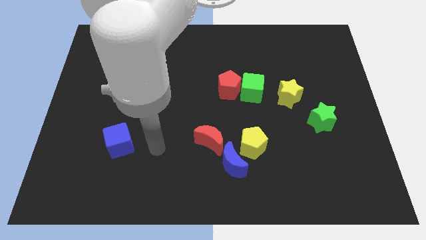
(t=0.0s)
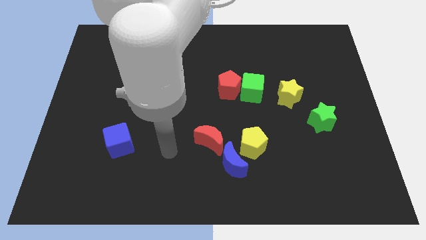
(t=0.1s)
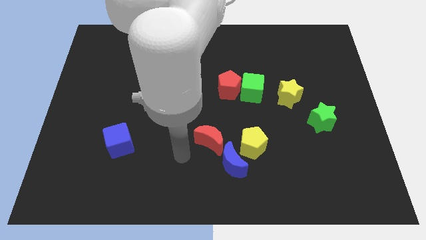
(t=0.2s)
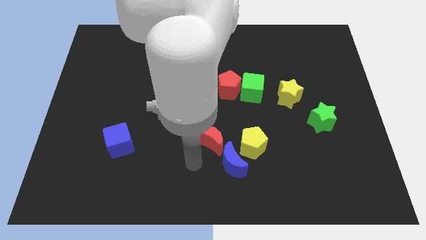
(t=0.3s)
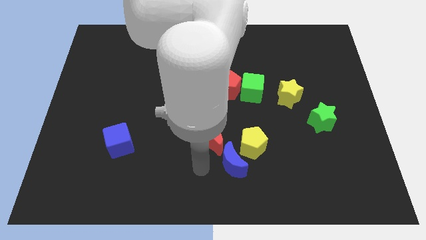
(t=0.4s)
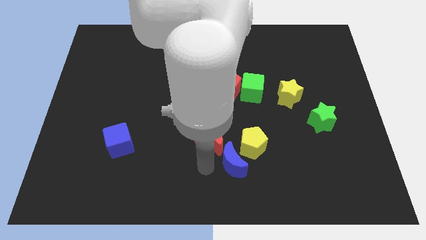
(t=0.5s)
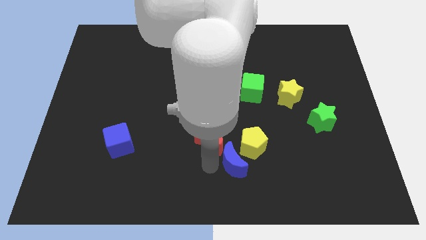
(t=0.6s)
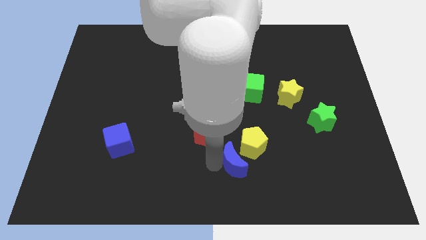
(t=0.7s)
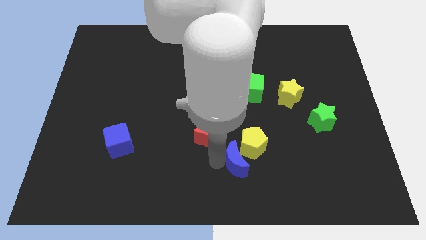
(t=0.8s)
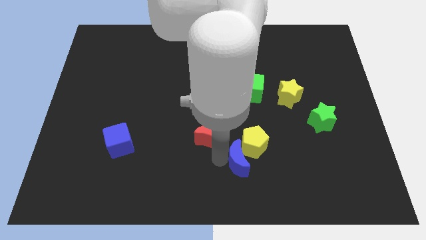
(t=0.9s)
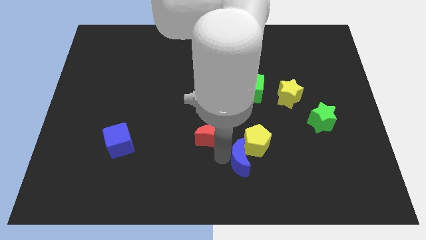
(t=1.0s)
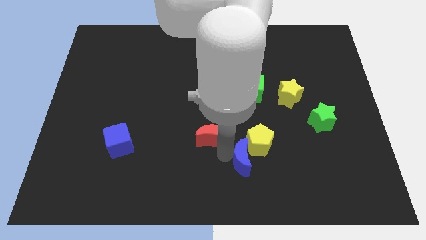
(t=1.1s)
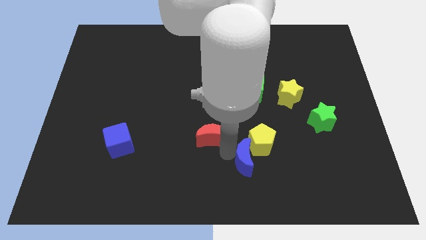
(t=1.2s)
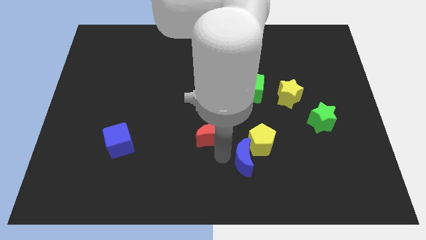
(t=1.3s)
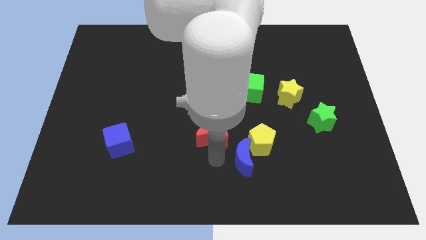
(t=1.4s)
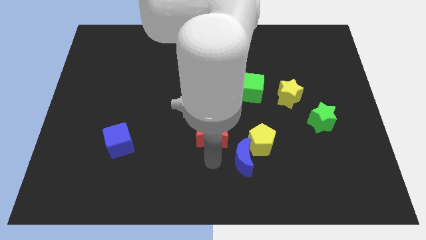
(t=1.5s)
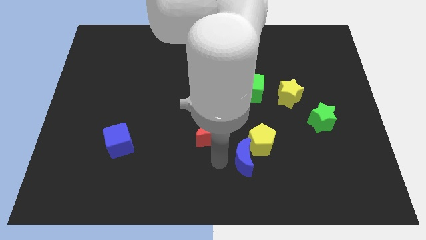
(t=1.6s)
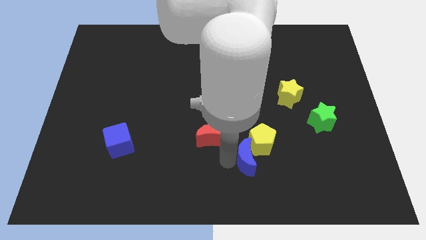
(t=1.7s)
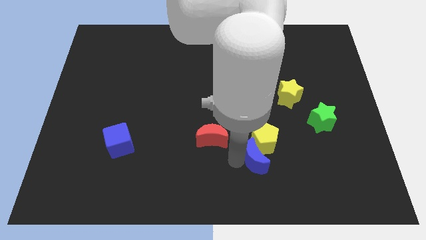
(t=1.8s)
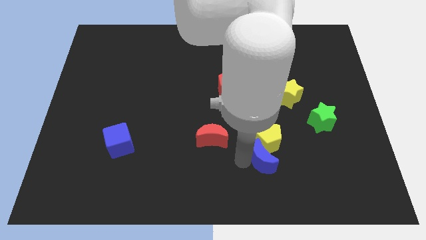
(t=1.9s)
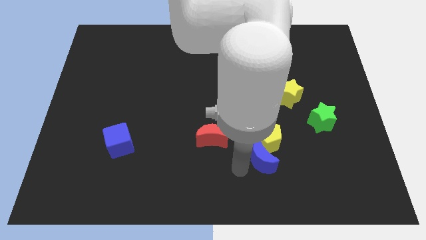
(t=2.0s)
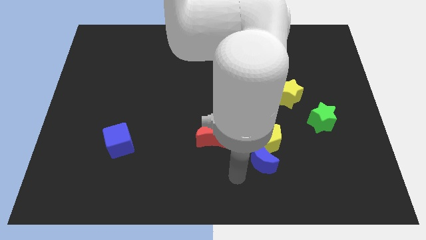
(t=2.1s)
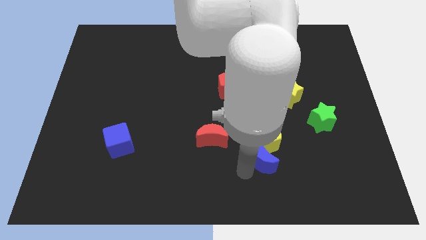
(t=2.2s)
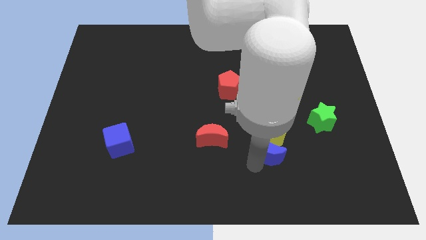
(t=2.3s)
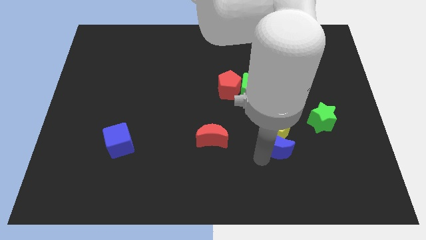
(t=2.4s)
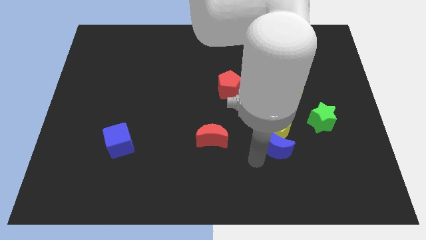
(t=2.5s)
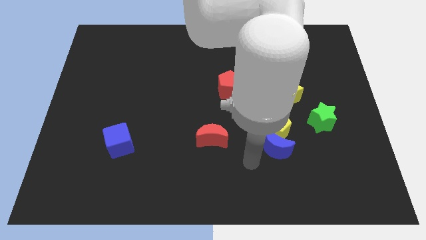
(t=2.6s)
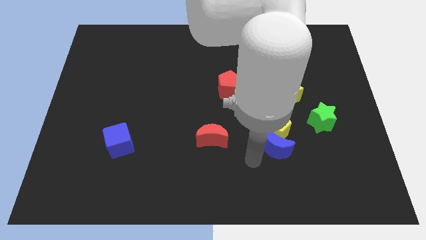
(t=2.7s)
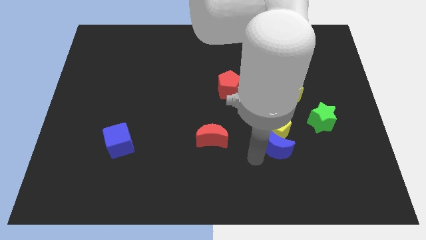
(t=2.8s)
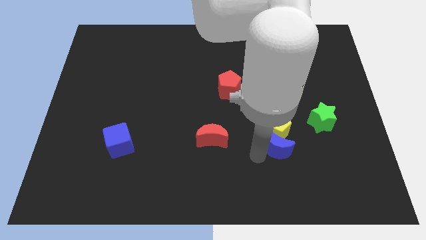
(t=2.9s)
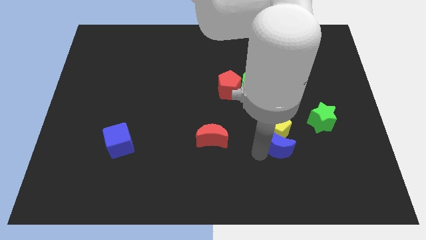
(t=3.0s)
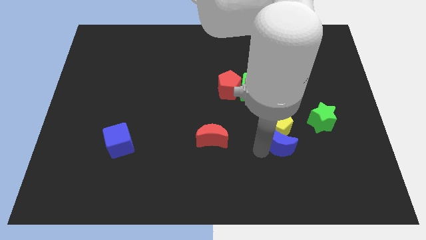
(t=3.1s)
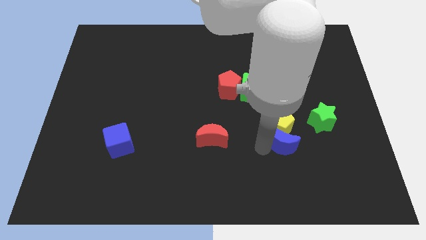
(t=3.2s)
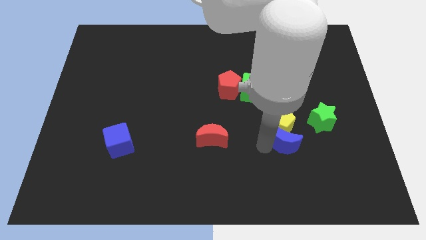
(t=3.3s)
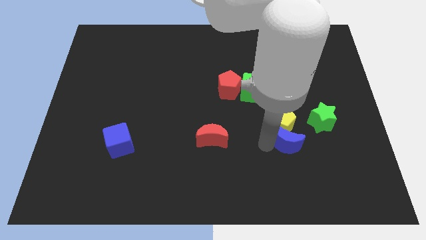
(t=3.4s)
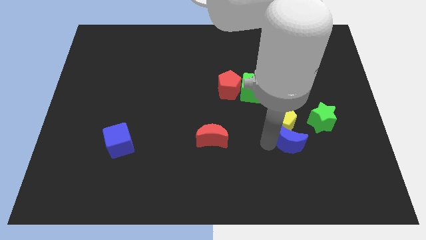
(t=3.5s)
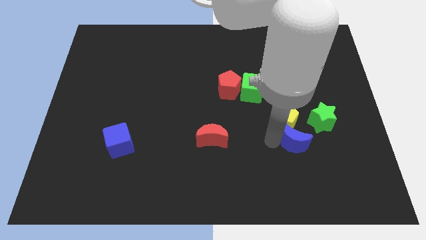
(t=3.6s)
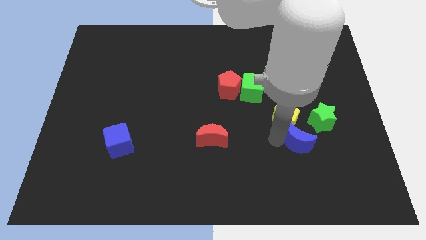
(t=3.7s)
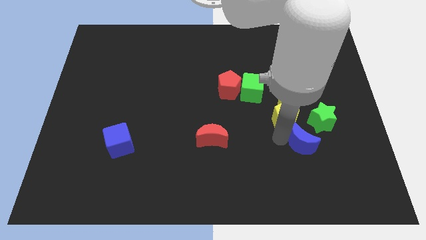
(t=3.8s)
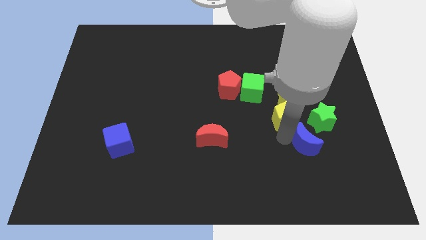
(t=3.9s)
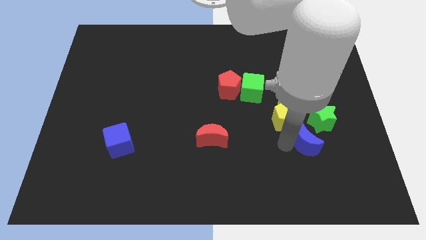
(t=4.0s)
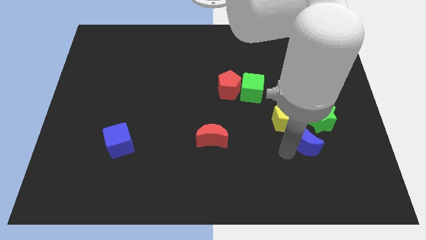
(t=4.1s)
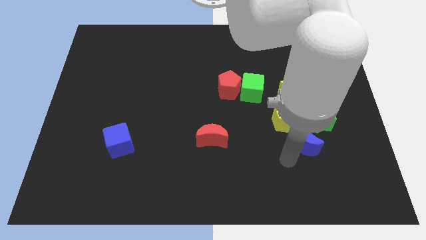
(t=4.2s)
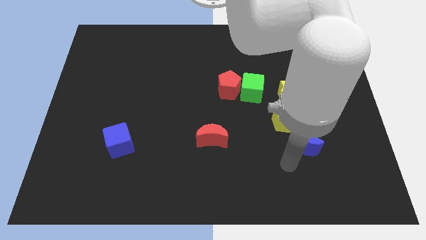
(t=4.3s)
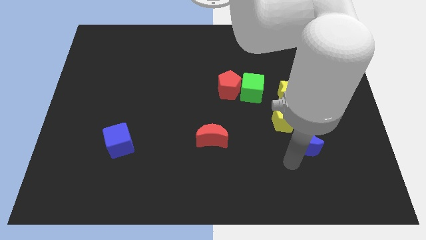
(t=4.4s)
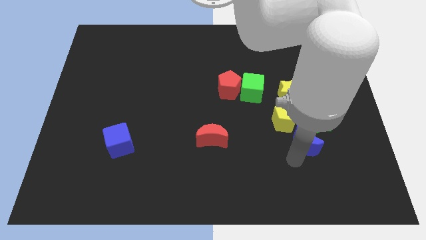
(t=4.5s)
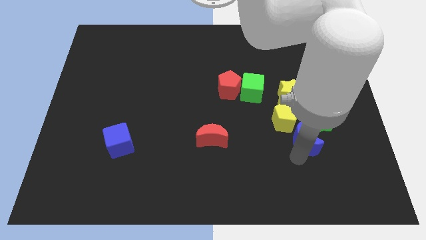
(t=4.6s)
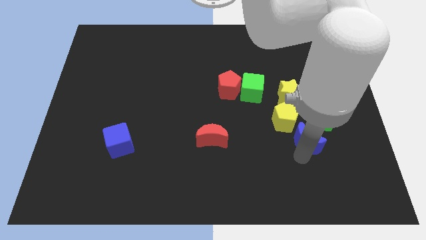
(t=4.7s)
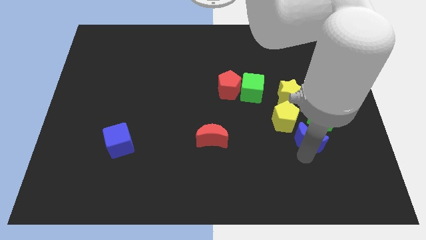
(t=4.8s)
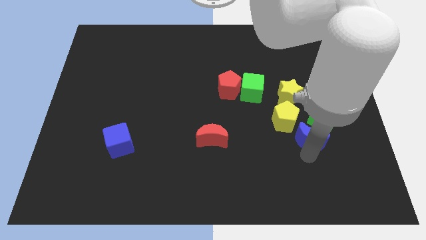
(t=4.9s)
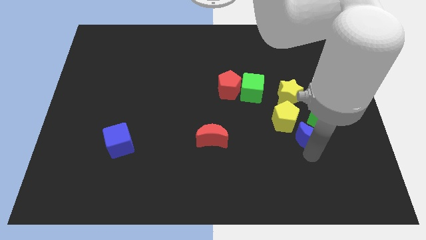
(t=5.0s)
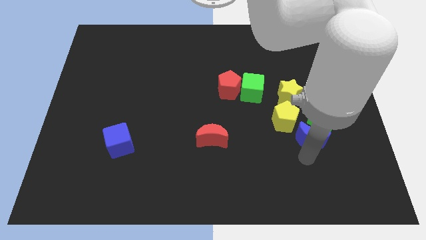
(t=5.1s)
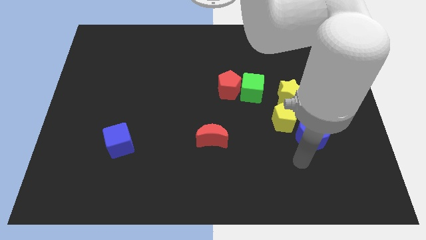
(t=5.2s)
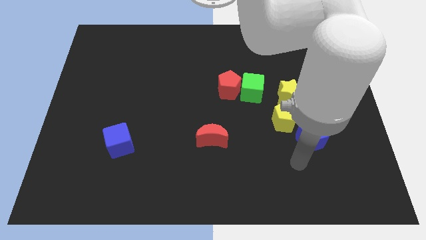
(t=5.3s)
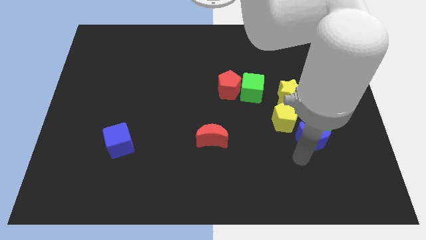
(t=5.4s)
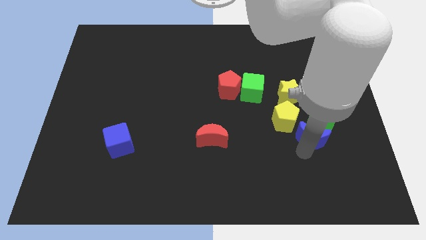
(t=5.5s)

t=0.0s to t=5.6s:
move the blue moon to the green star

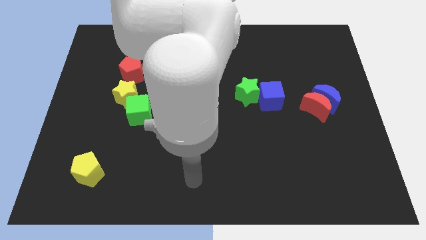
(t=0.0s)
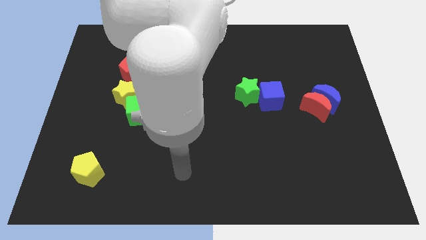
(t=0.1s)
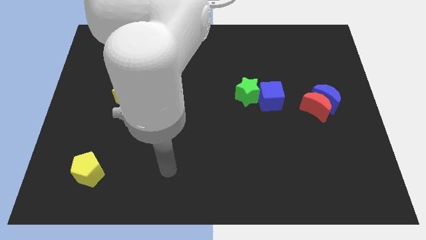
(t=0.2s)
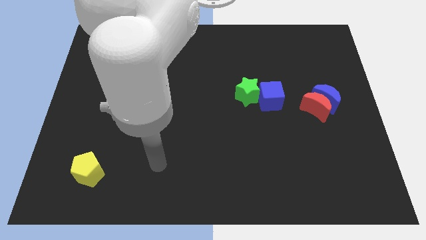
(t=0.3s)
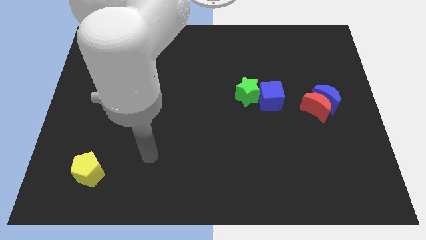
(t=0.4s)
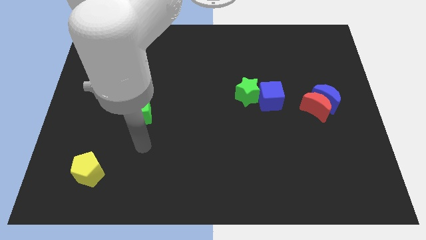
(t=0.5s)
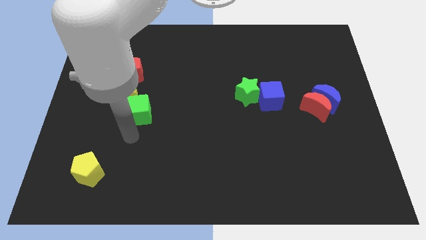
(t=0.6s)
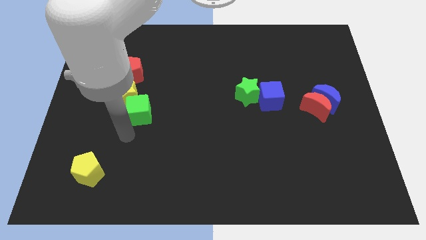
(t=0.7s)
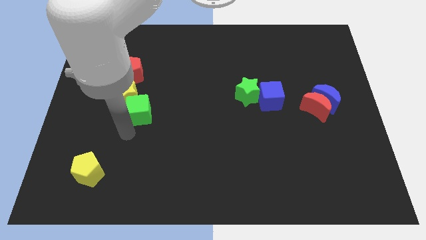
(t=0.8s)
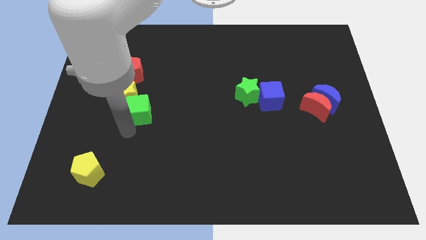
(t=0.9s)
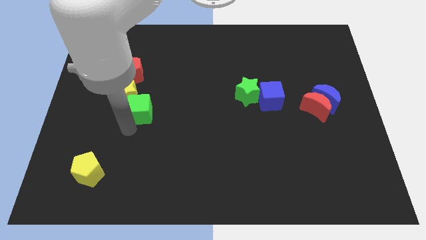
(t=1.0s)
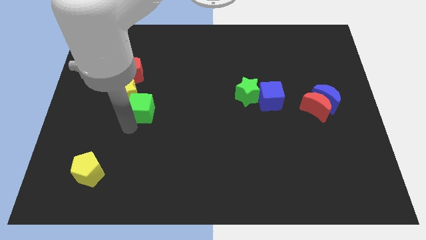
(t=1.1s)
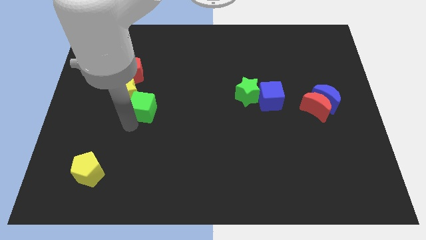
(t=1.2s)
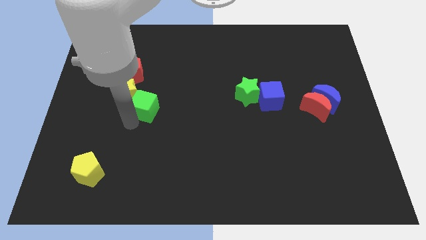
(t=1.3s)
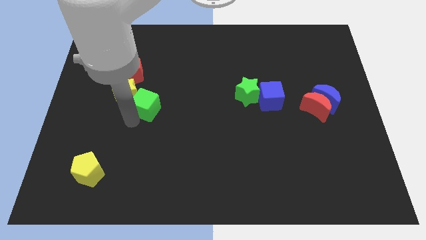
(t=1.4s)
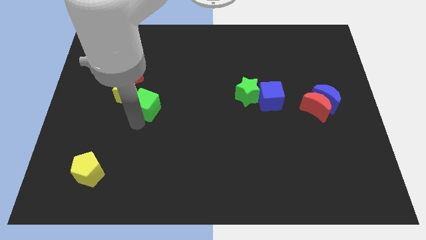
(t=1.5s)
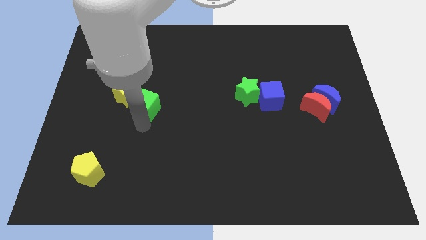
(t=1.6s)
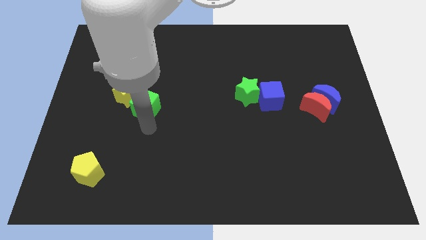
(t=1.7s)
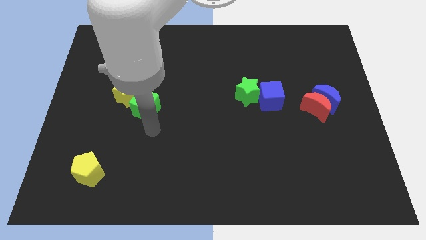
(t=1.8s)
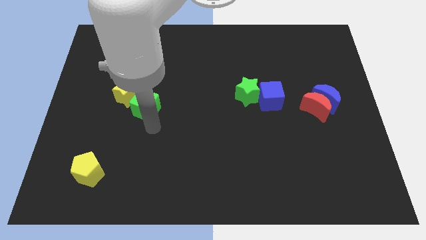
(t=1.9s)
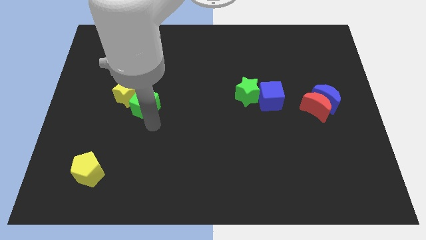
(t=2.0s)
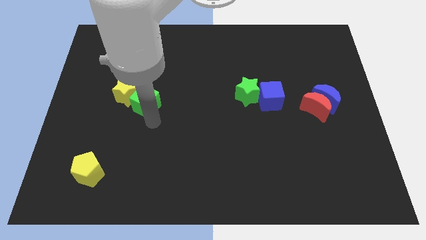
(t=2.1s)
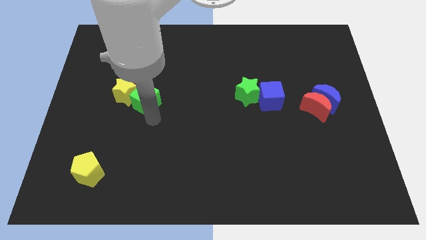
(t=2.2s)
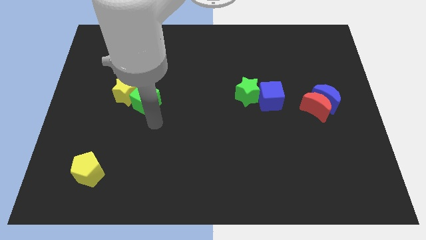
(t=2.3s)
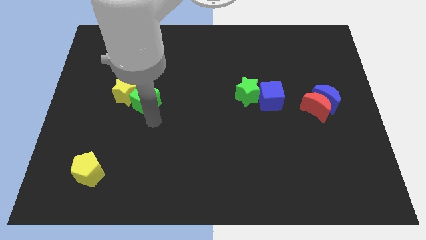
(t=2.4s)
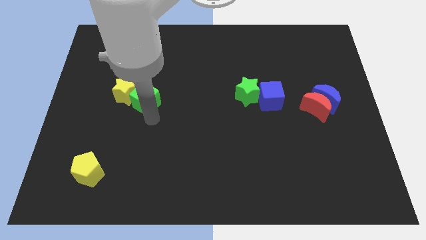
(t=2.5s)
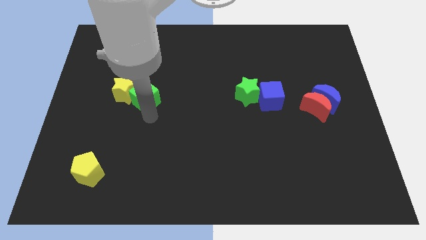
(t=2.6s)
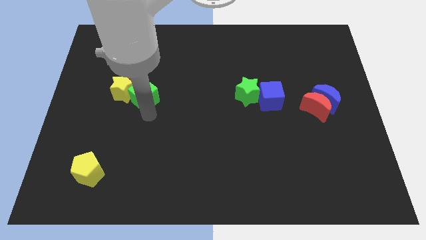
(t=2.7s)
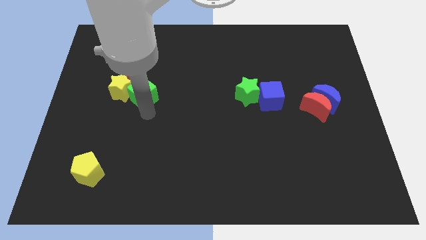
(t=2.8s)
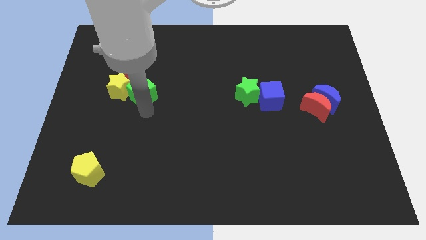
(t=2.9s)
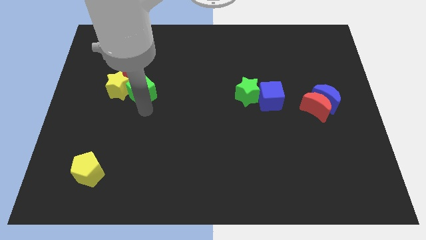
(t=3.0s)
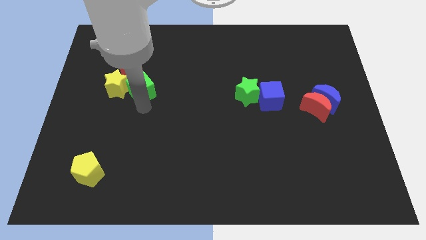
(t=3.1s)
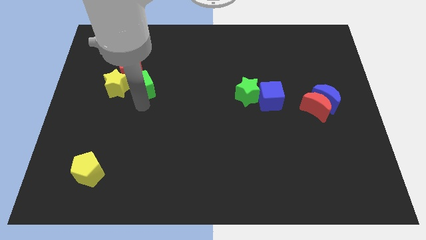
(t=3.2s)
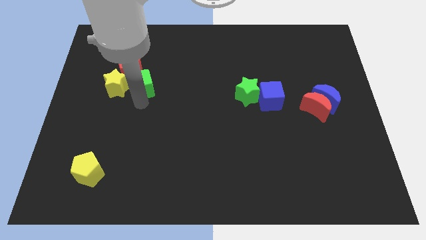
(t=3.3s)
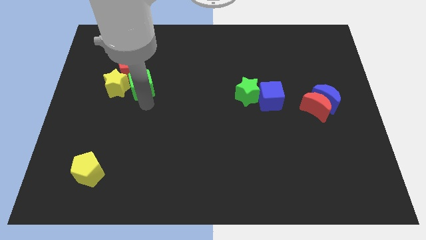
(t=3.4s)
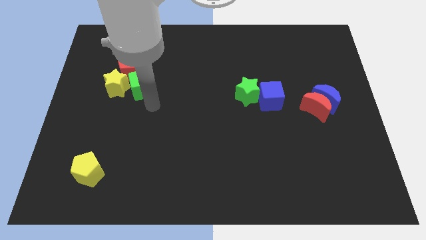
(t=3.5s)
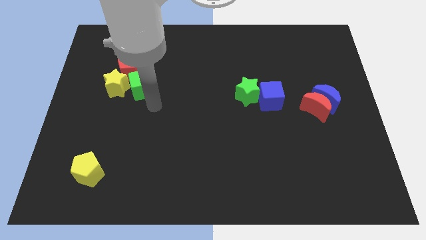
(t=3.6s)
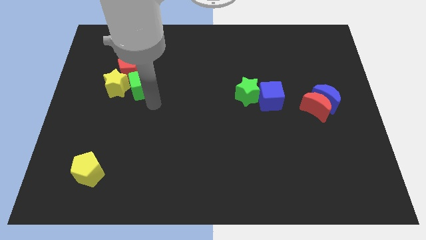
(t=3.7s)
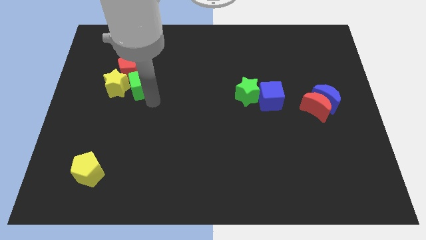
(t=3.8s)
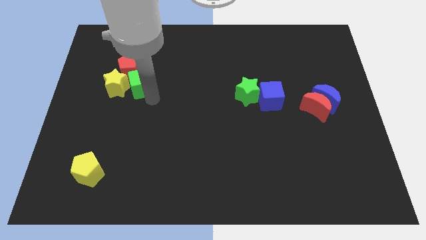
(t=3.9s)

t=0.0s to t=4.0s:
push the green cube to the red pentagon
